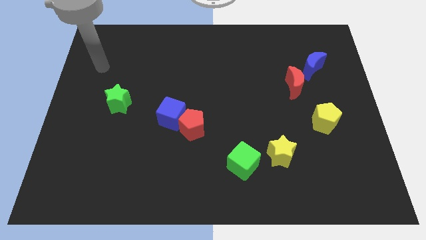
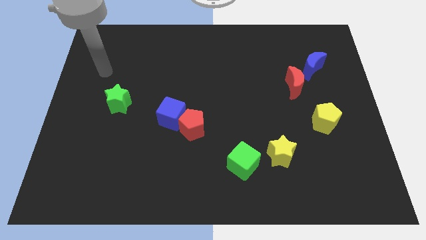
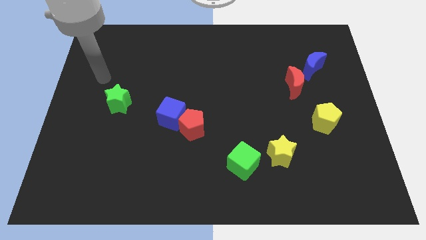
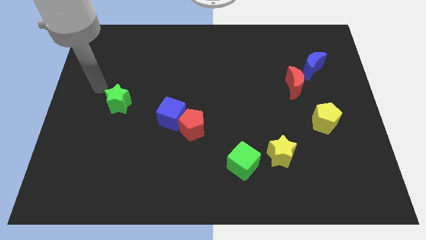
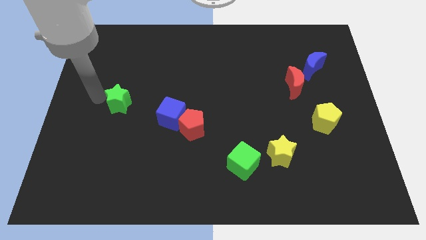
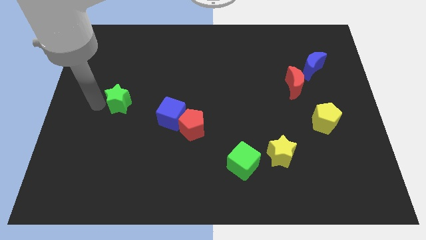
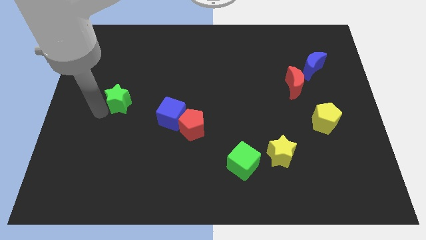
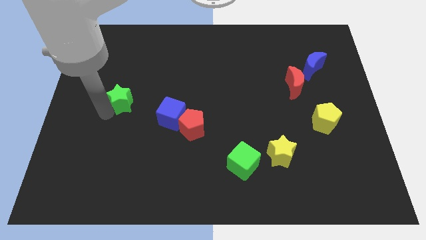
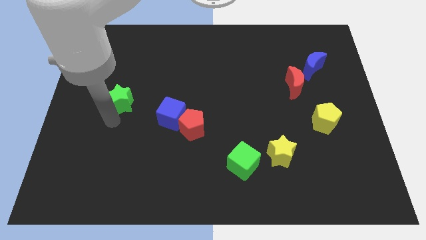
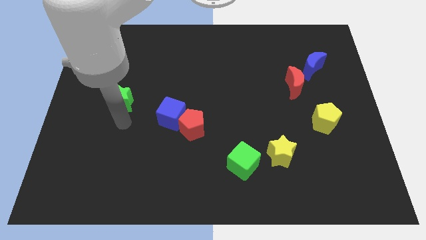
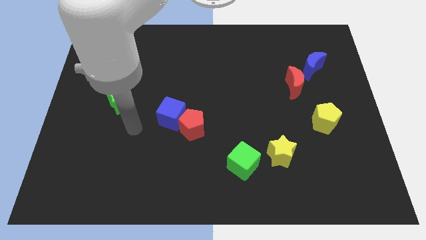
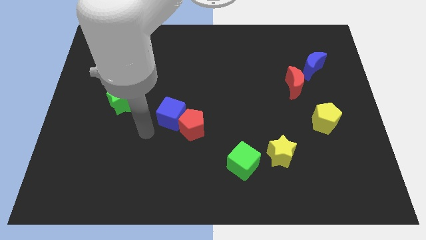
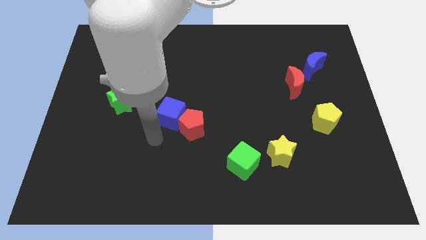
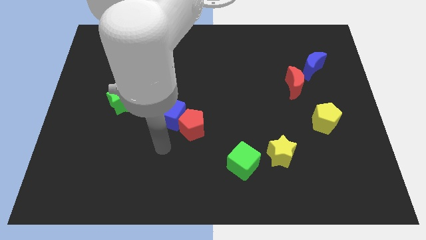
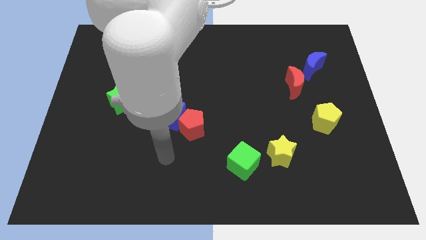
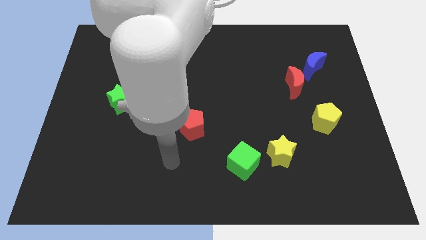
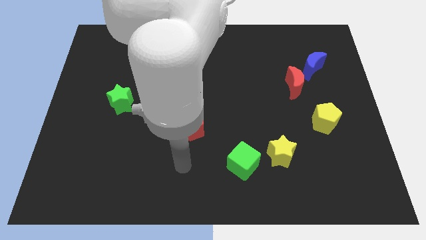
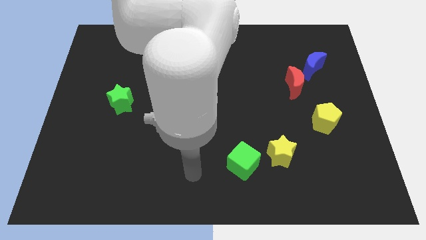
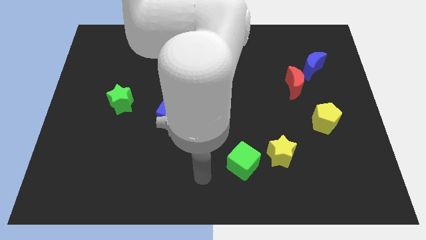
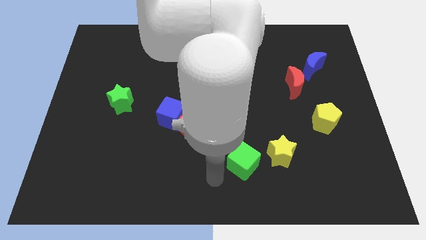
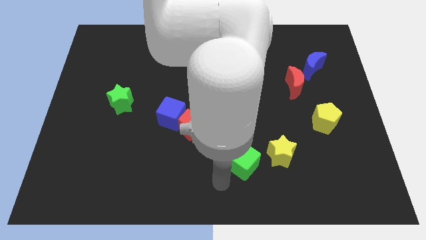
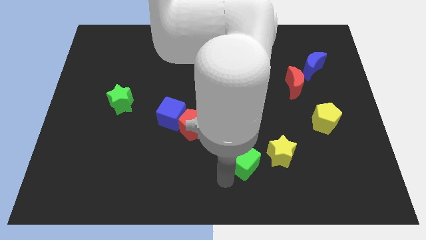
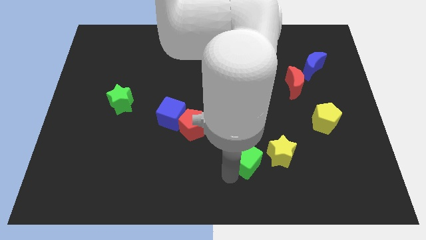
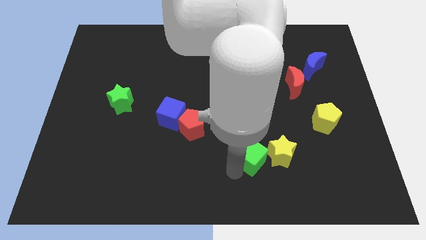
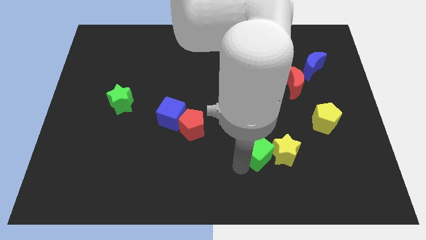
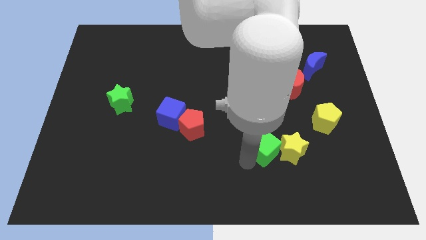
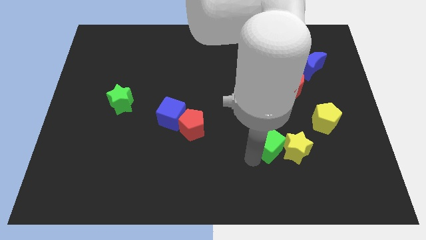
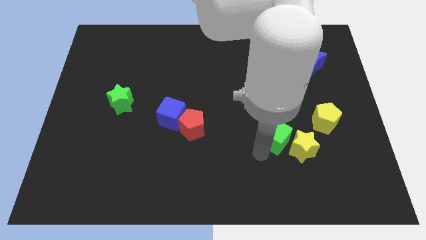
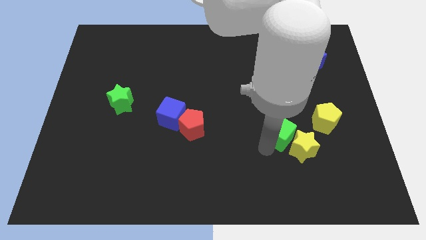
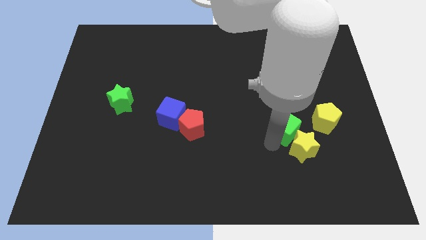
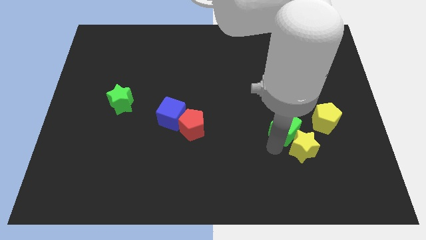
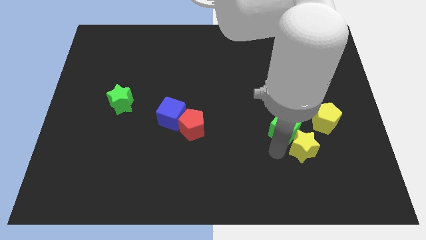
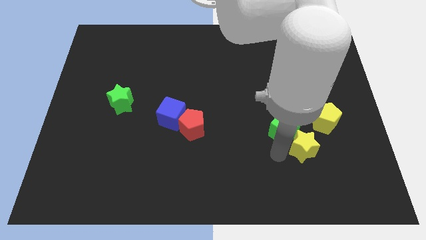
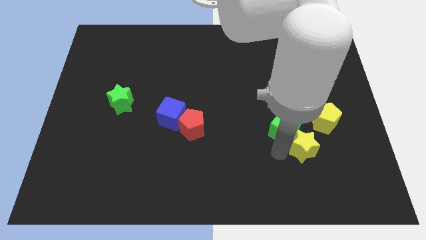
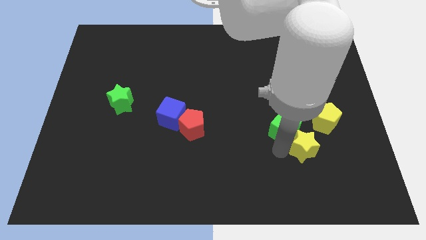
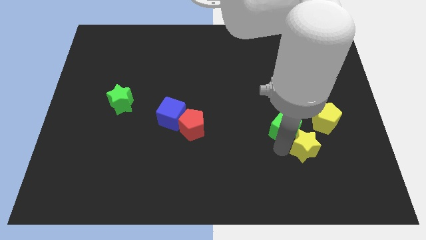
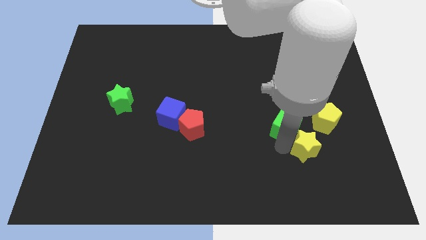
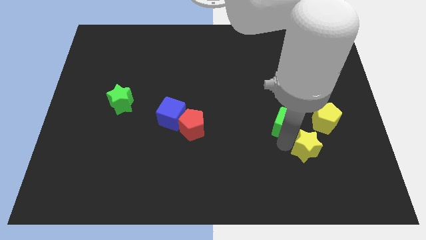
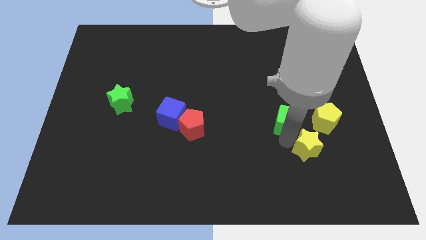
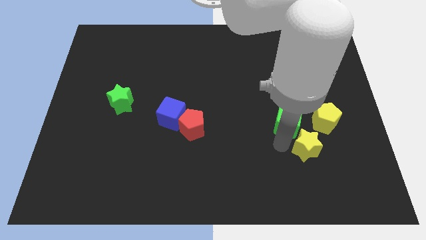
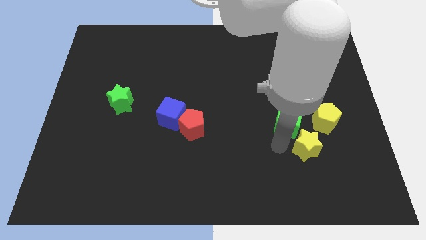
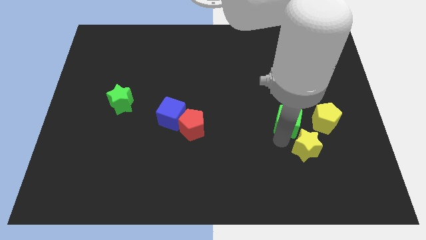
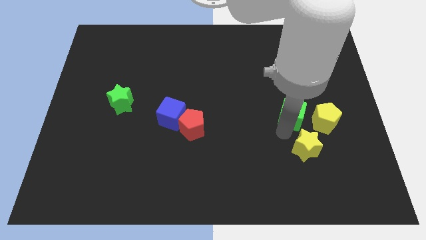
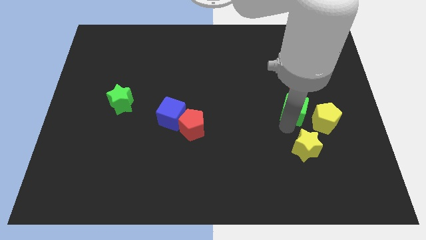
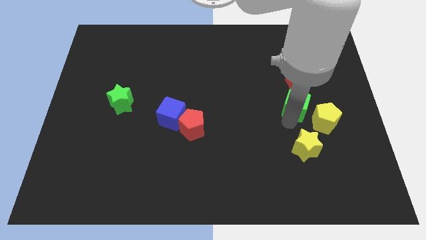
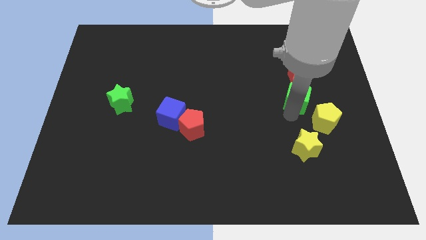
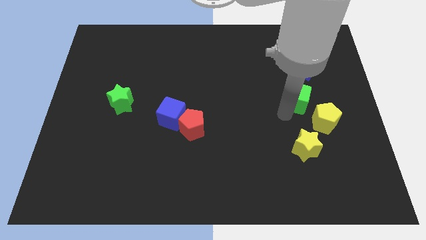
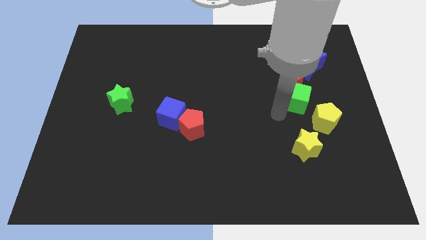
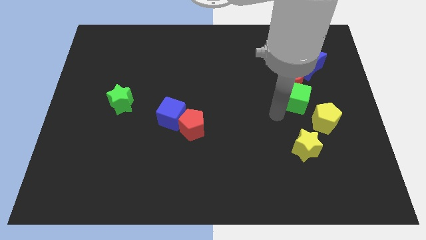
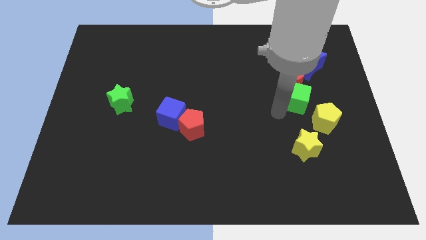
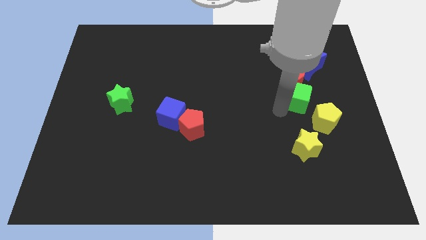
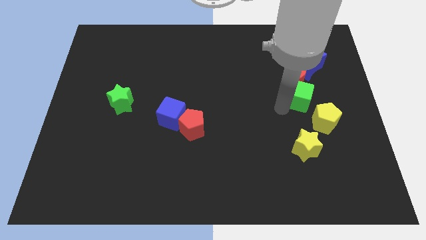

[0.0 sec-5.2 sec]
move the green cube to the top of the yellow pentagon

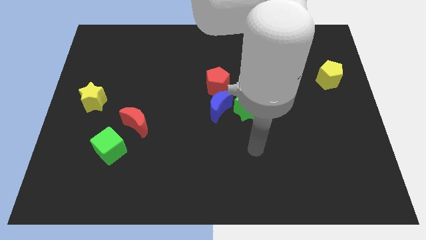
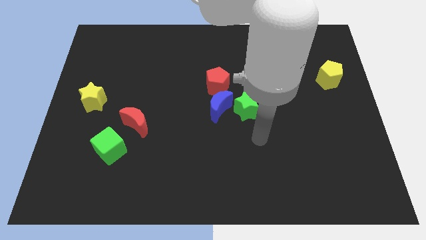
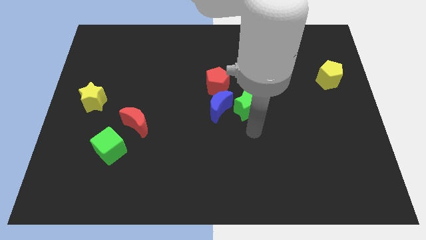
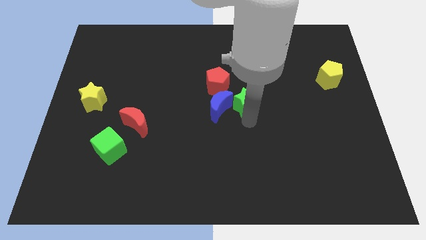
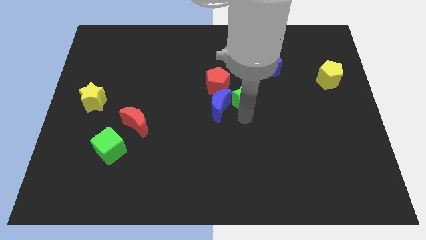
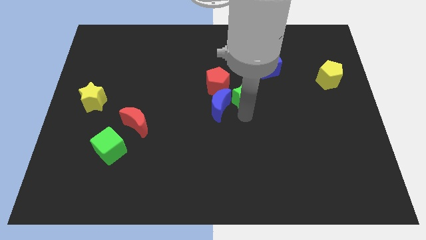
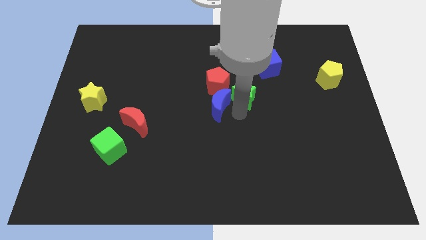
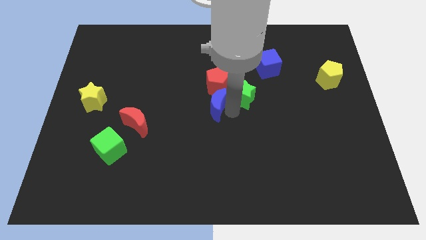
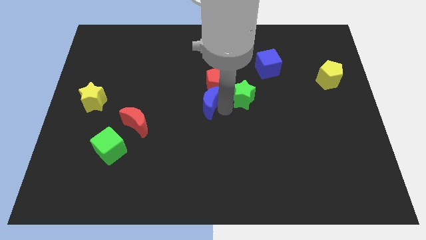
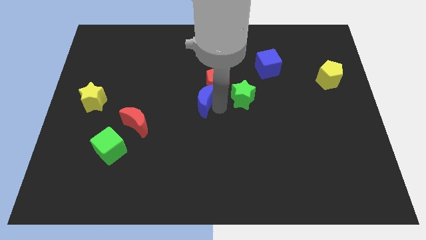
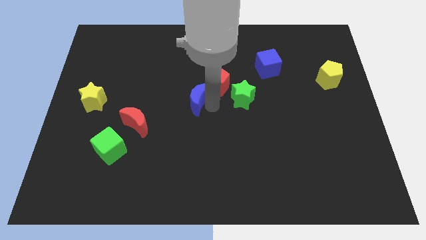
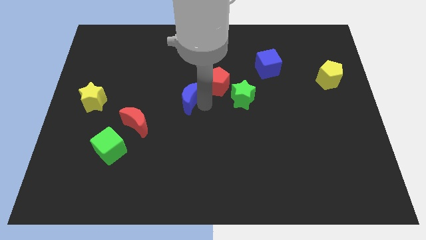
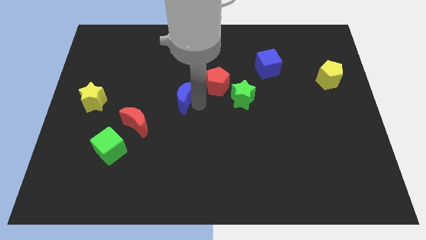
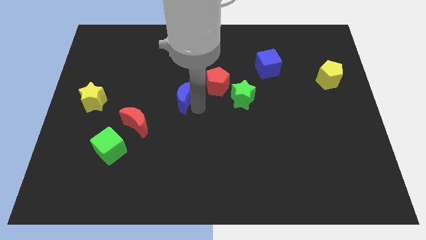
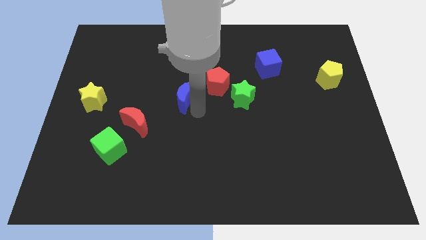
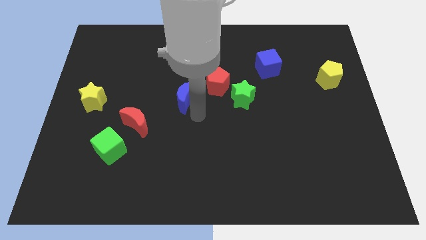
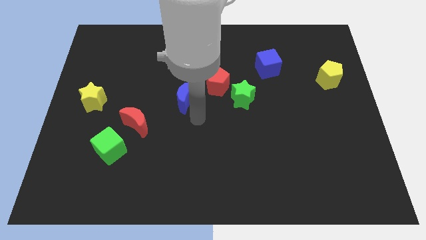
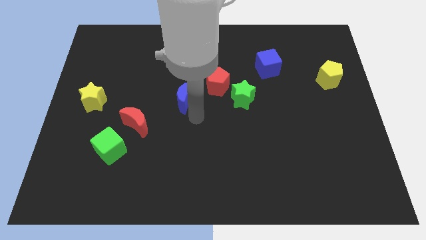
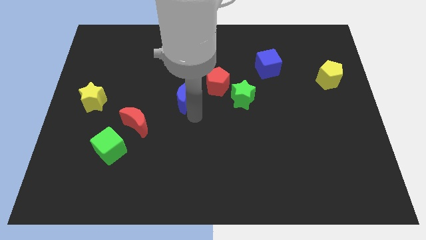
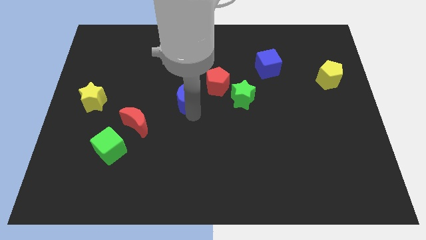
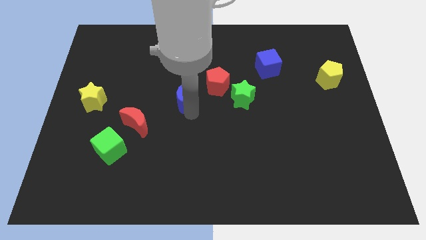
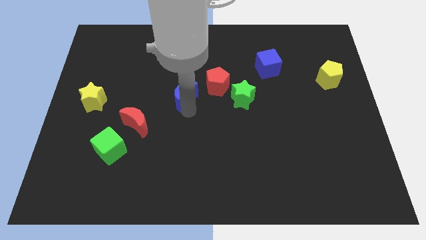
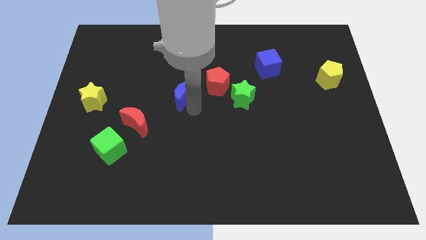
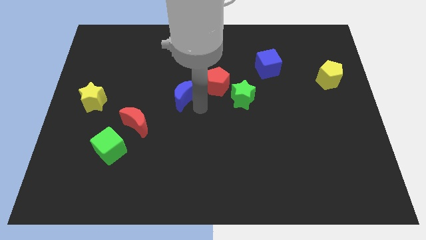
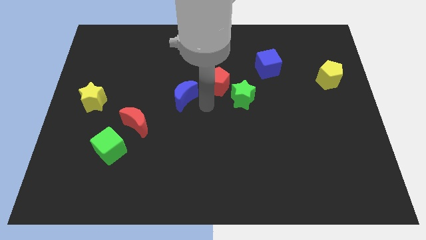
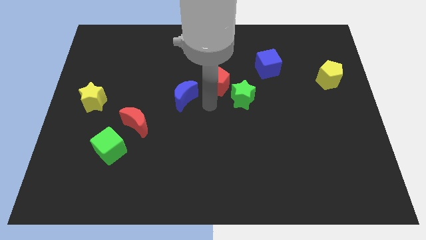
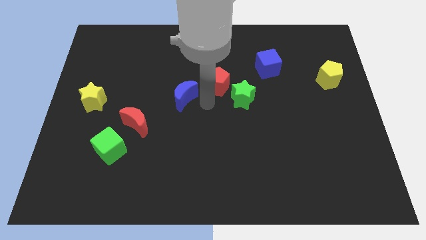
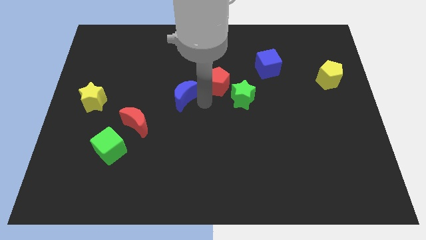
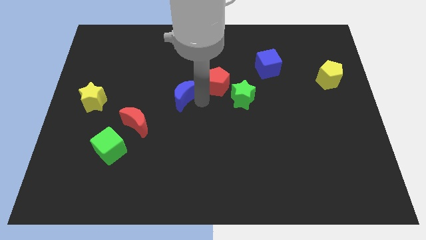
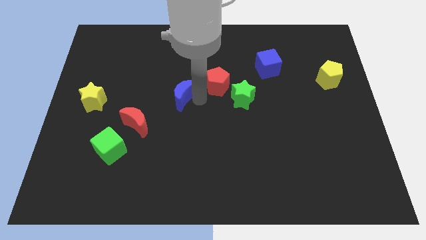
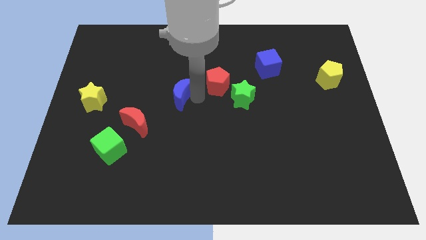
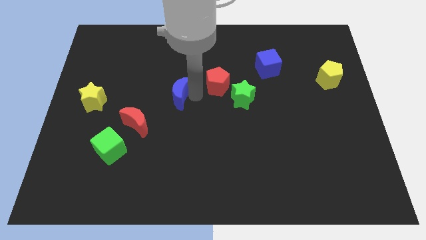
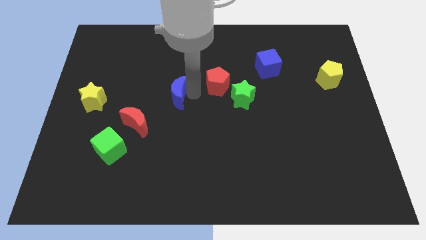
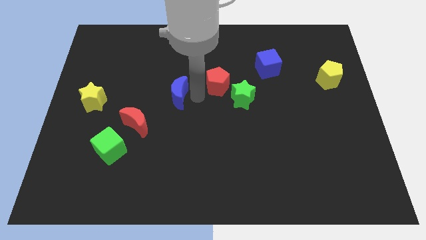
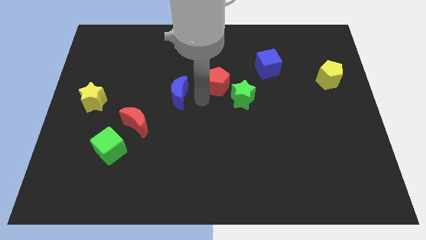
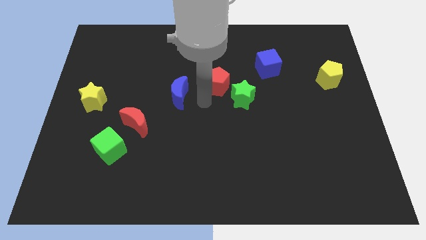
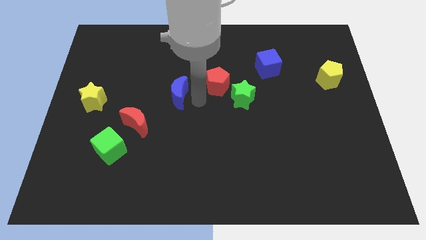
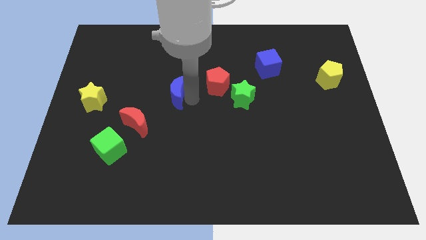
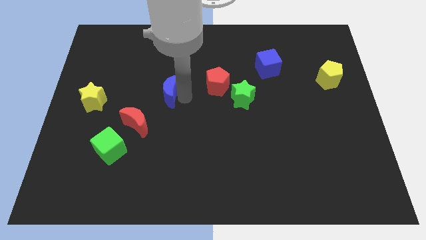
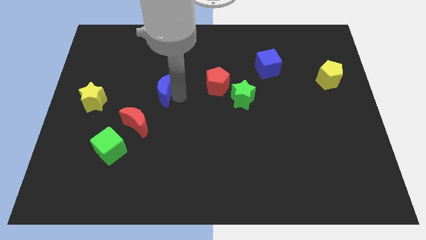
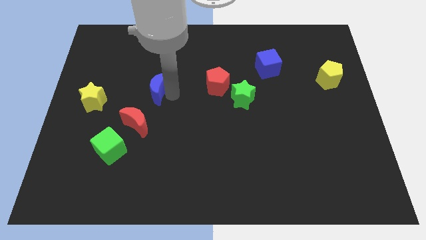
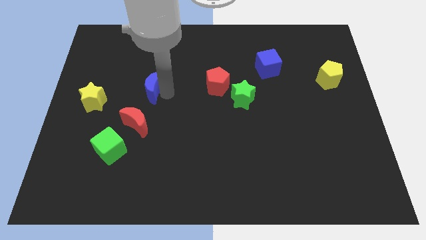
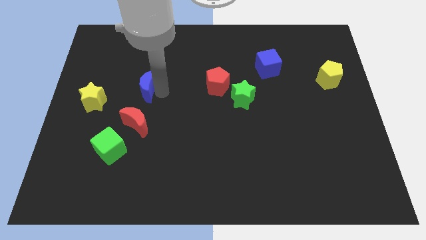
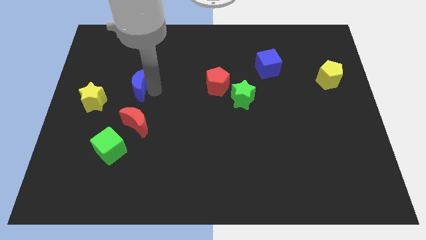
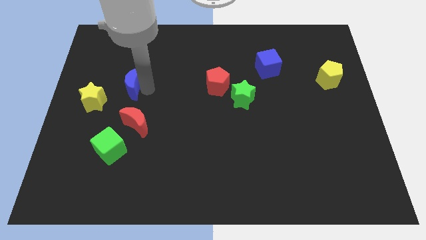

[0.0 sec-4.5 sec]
move the blue moon to the top right side of the yellow star
